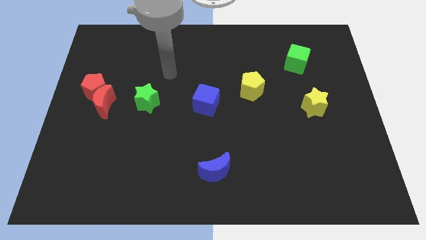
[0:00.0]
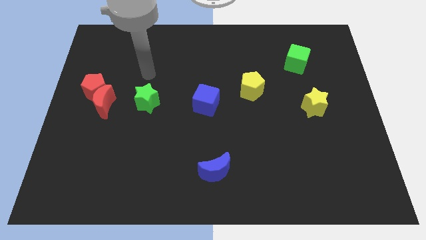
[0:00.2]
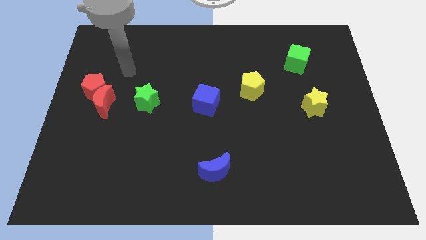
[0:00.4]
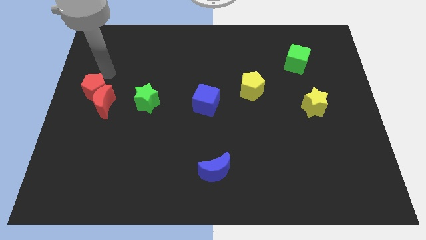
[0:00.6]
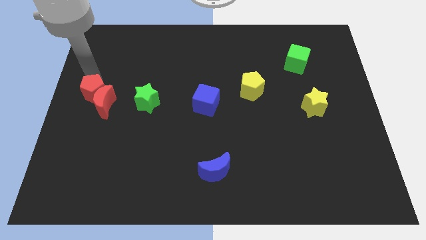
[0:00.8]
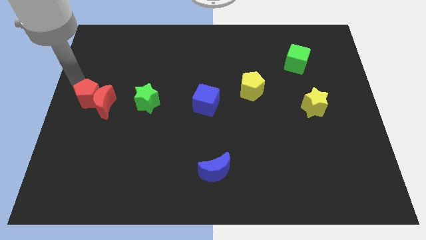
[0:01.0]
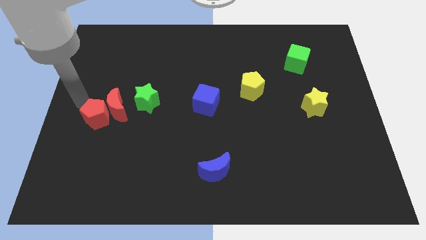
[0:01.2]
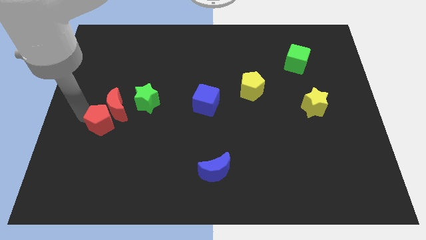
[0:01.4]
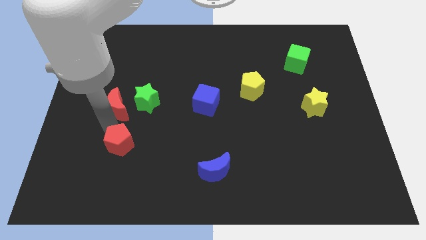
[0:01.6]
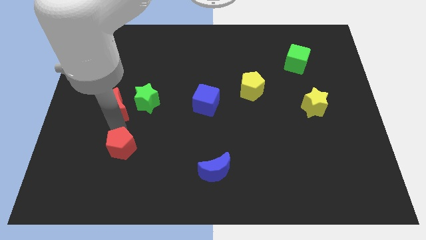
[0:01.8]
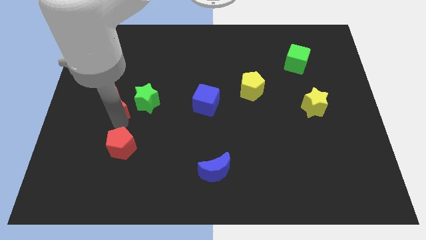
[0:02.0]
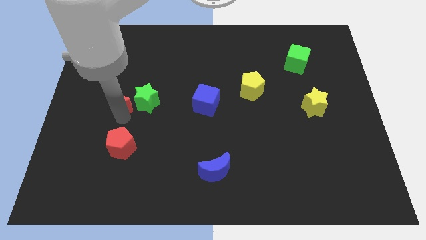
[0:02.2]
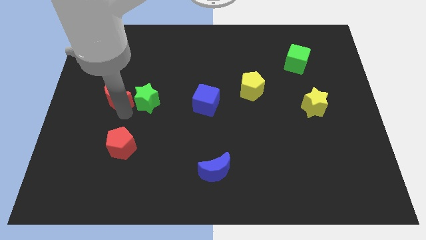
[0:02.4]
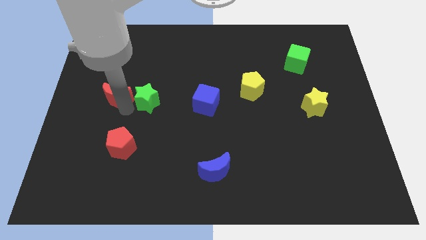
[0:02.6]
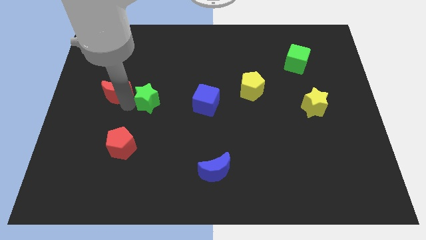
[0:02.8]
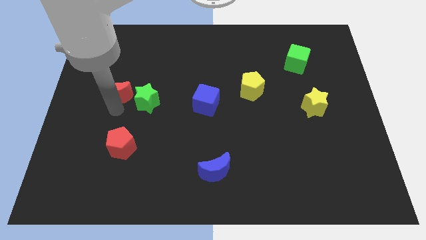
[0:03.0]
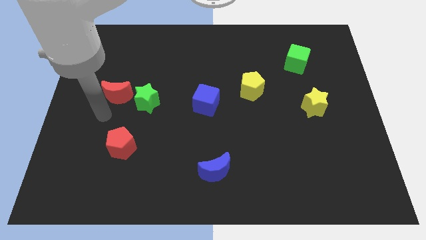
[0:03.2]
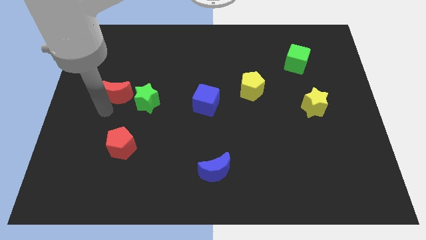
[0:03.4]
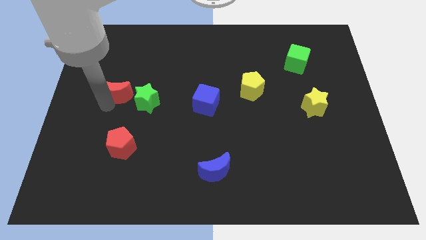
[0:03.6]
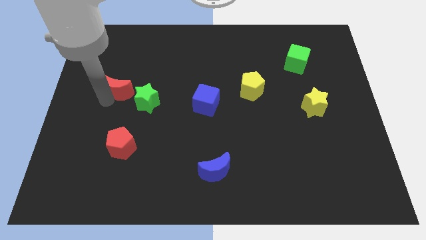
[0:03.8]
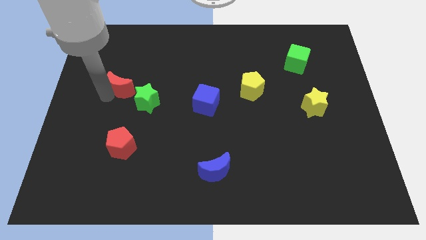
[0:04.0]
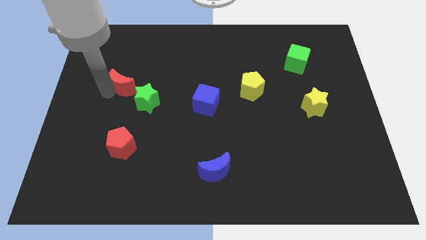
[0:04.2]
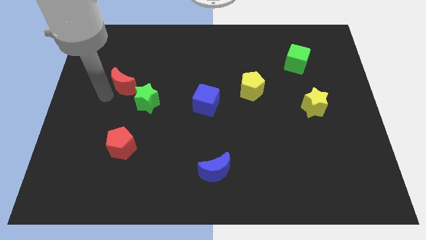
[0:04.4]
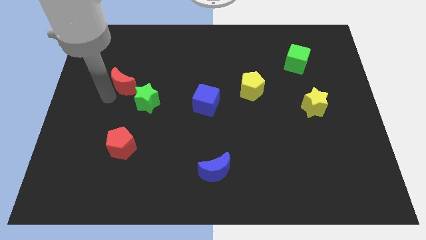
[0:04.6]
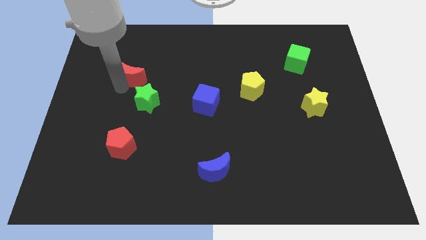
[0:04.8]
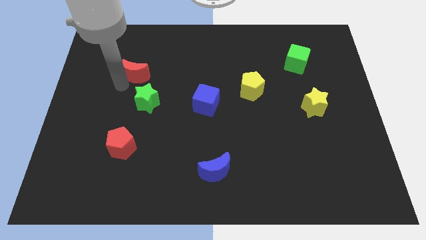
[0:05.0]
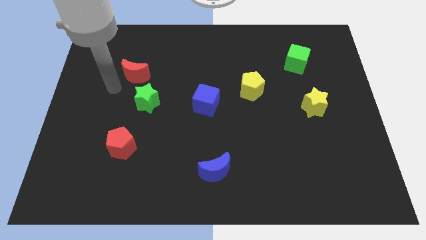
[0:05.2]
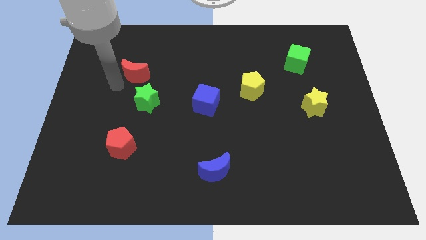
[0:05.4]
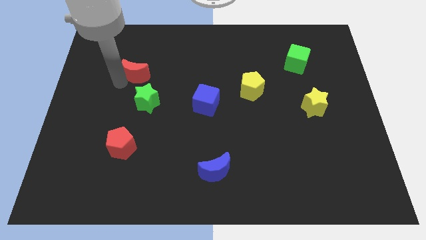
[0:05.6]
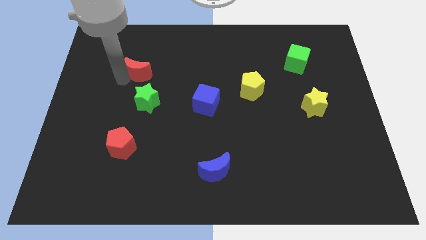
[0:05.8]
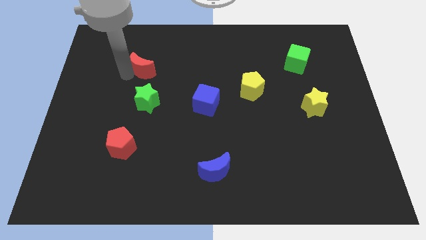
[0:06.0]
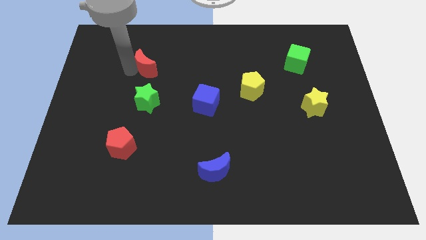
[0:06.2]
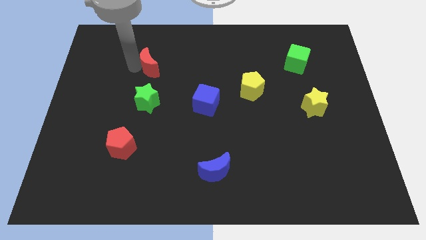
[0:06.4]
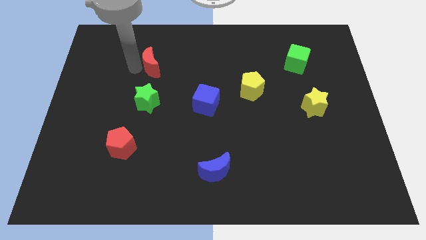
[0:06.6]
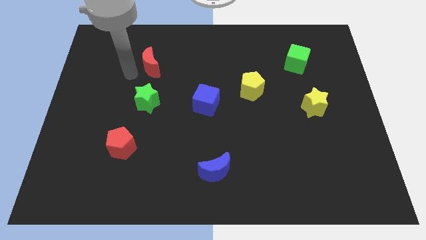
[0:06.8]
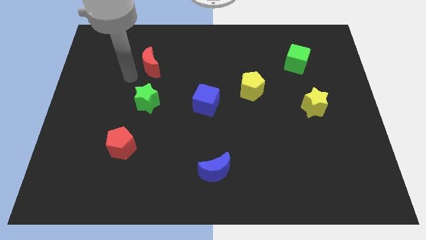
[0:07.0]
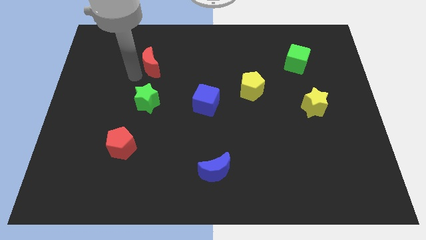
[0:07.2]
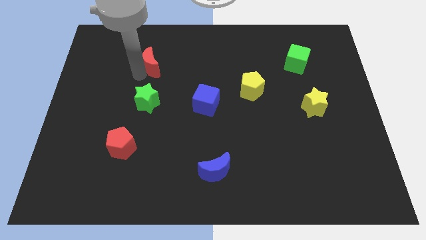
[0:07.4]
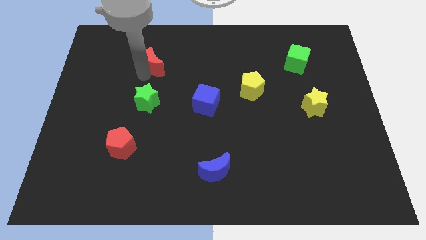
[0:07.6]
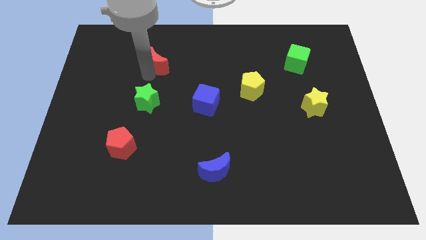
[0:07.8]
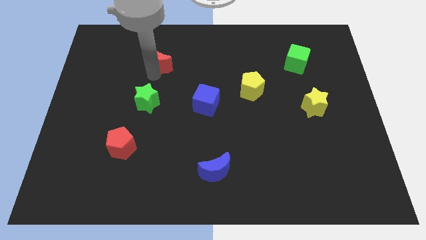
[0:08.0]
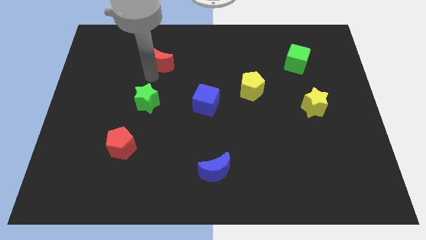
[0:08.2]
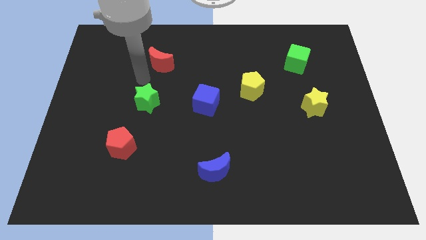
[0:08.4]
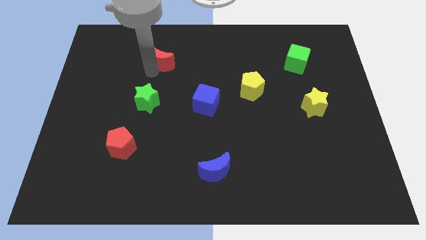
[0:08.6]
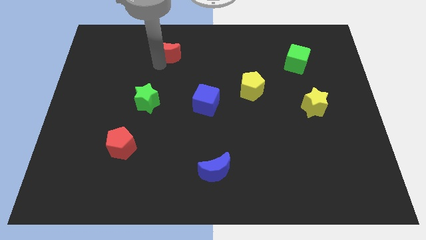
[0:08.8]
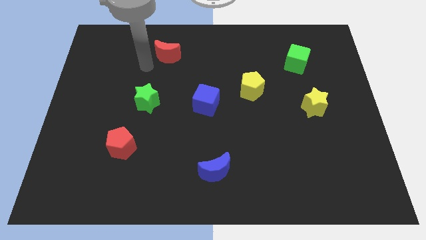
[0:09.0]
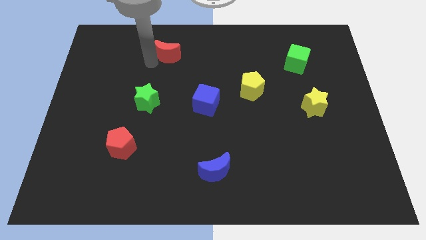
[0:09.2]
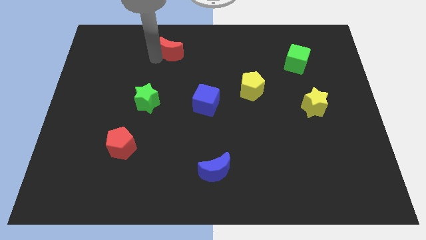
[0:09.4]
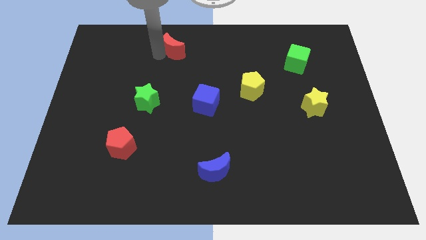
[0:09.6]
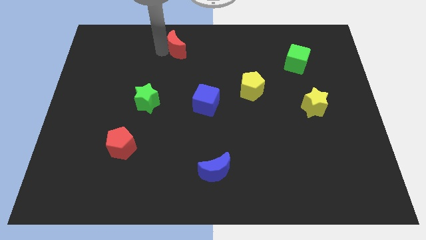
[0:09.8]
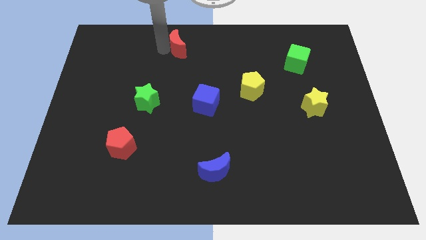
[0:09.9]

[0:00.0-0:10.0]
put the red moon to the top side

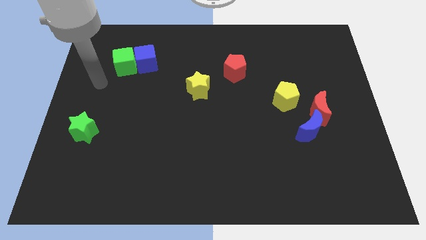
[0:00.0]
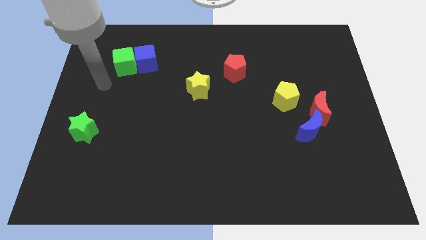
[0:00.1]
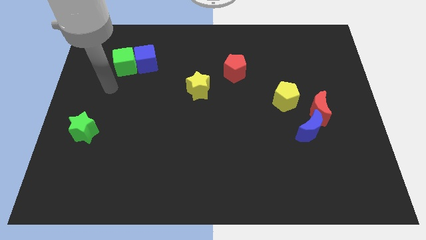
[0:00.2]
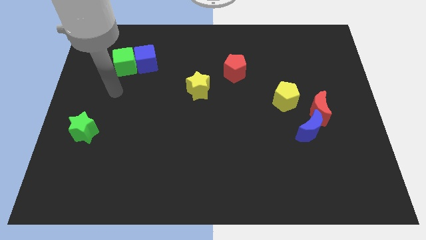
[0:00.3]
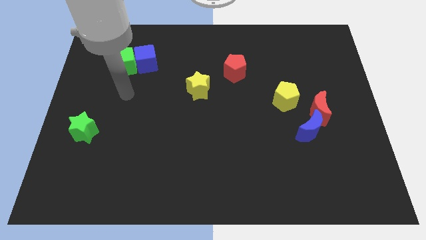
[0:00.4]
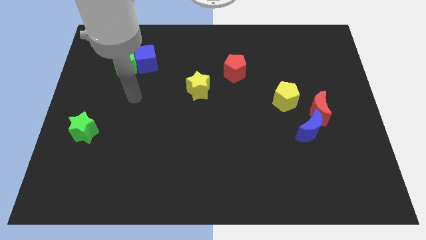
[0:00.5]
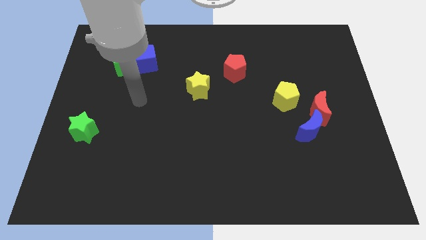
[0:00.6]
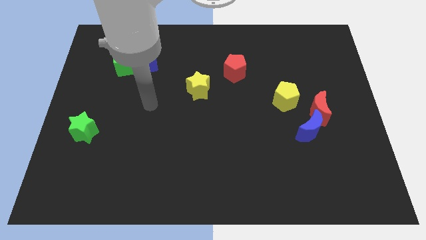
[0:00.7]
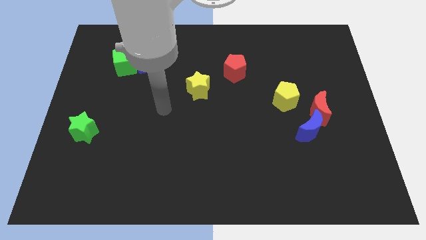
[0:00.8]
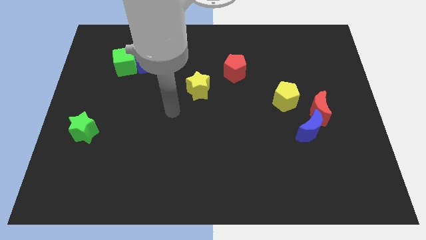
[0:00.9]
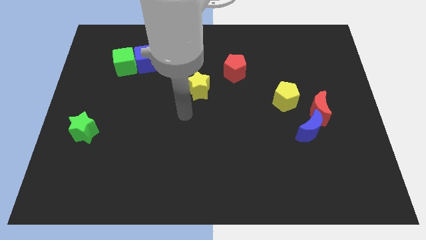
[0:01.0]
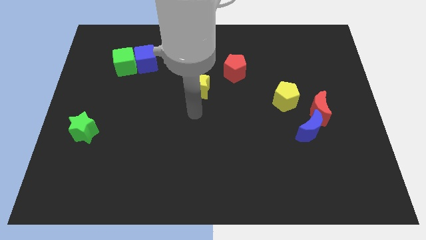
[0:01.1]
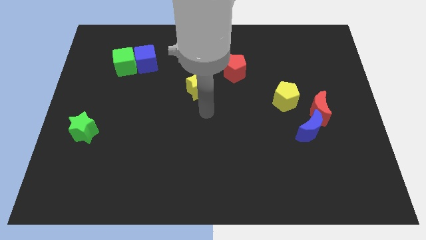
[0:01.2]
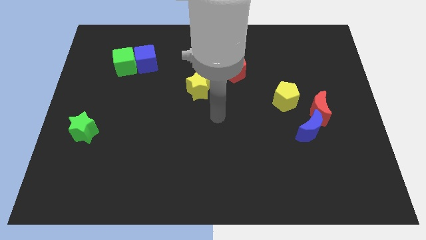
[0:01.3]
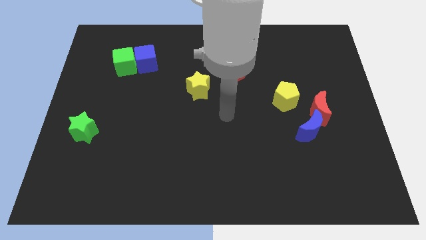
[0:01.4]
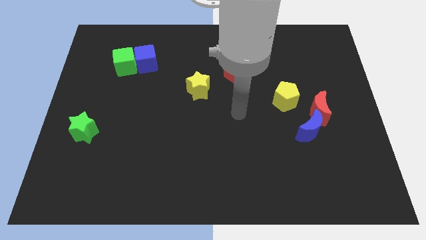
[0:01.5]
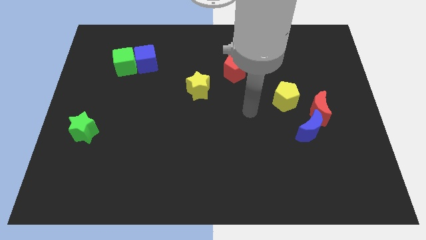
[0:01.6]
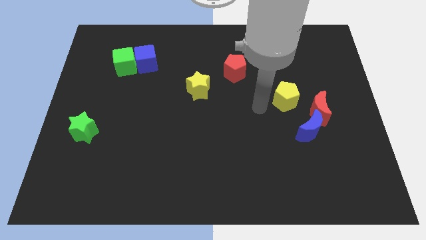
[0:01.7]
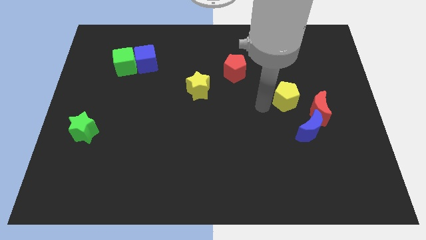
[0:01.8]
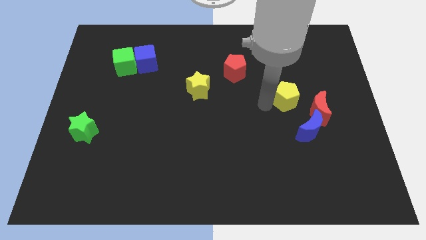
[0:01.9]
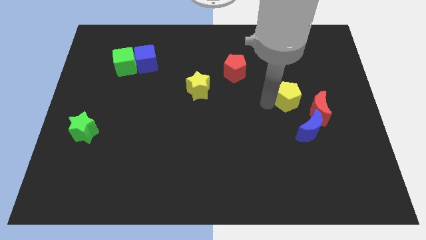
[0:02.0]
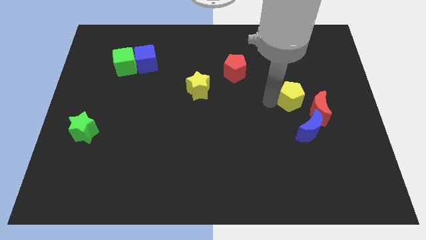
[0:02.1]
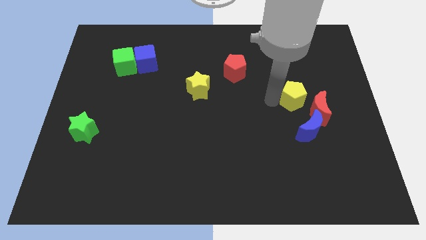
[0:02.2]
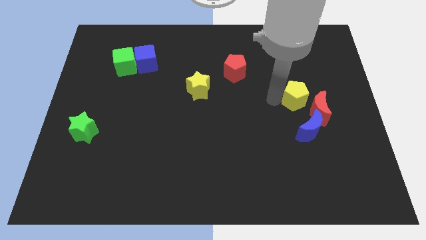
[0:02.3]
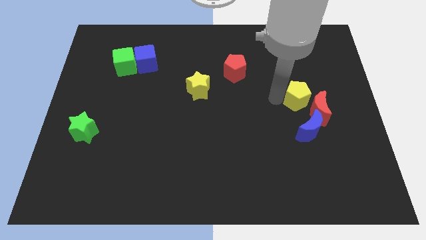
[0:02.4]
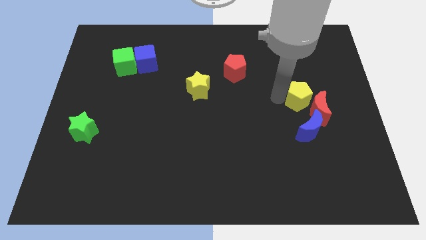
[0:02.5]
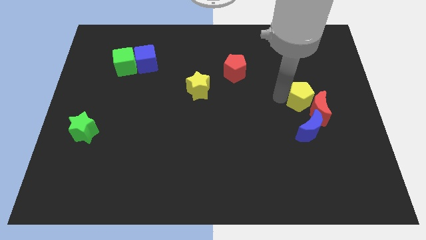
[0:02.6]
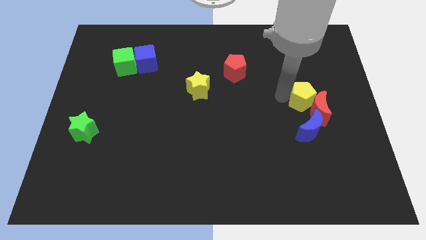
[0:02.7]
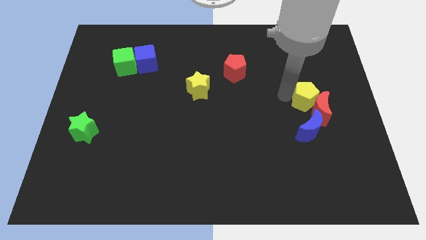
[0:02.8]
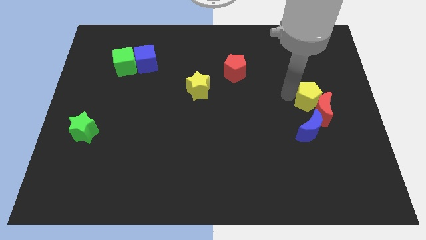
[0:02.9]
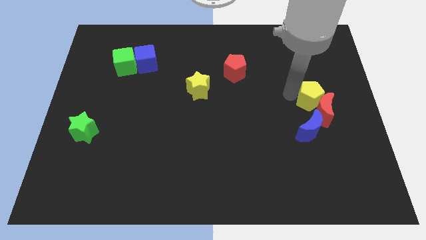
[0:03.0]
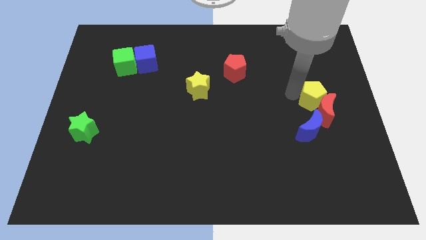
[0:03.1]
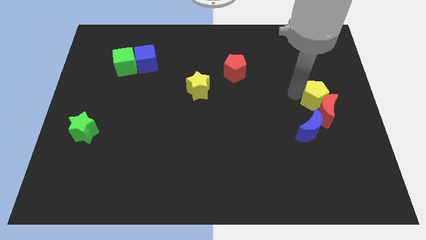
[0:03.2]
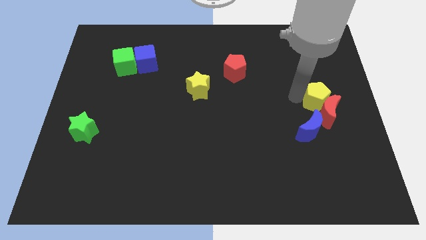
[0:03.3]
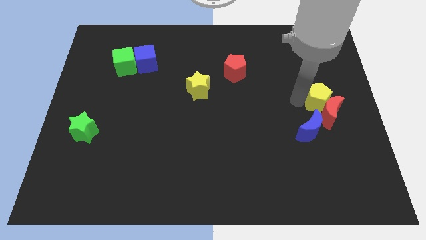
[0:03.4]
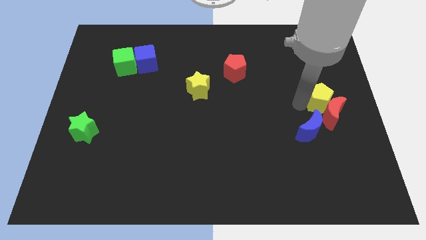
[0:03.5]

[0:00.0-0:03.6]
push the yellow pentagon to the right side of the board
